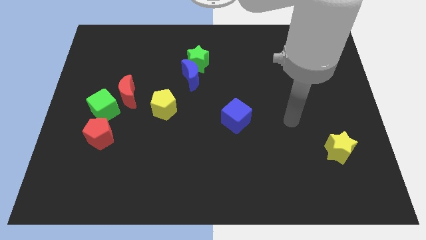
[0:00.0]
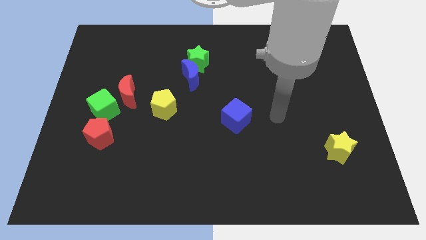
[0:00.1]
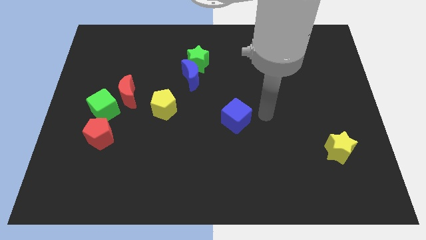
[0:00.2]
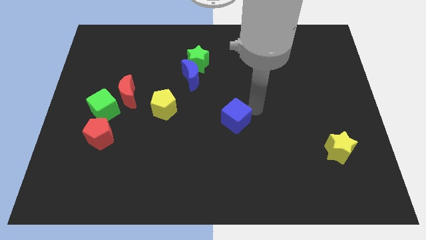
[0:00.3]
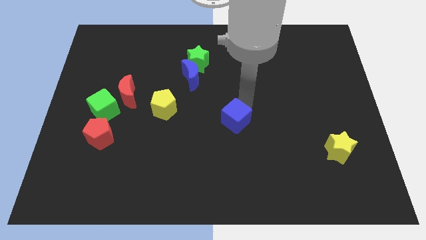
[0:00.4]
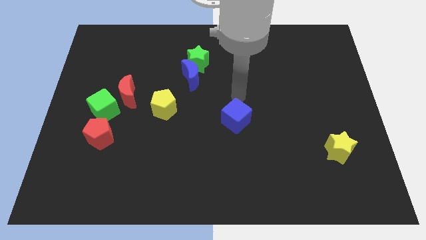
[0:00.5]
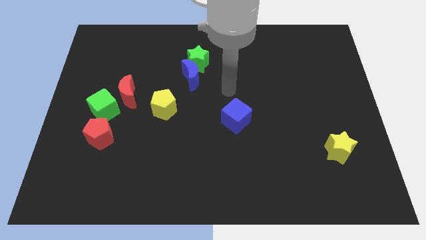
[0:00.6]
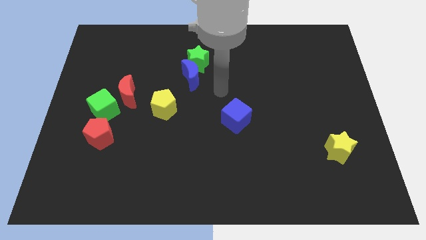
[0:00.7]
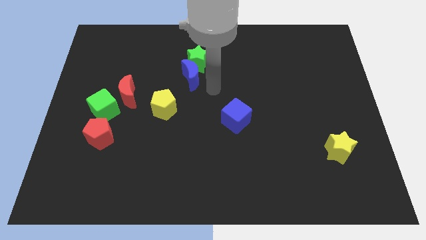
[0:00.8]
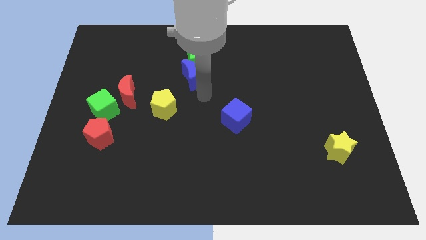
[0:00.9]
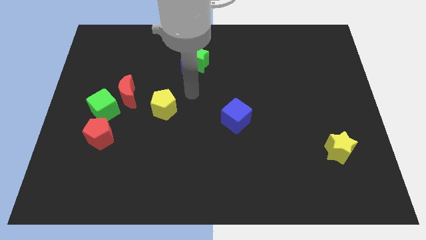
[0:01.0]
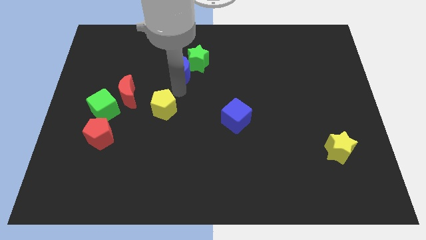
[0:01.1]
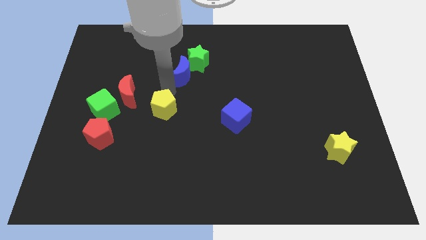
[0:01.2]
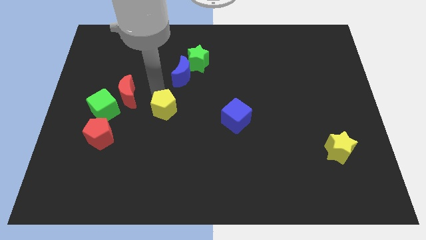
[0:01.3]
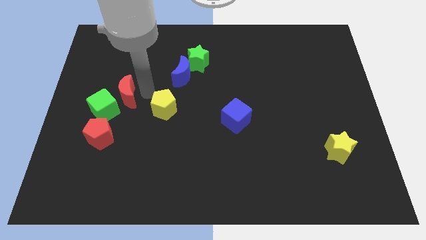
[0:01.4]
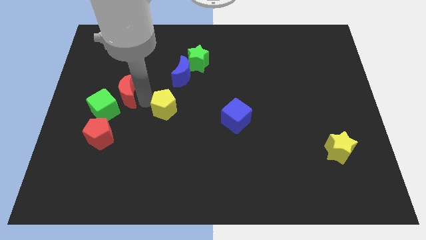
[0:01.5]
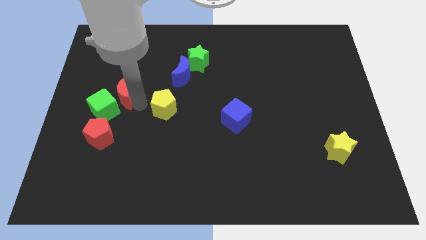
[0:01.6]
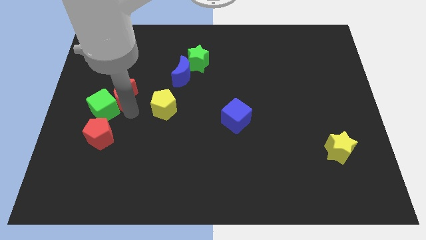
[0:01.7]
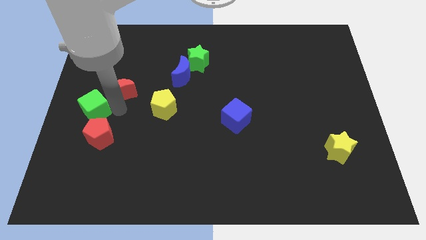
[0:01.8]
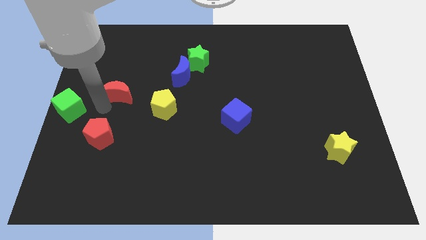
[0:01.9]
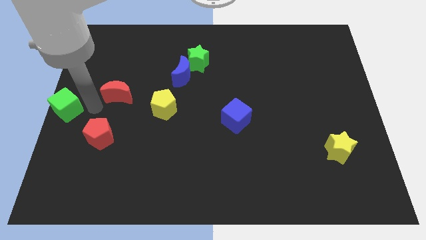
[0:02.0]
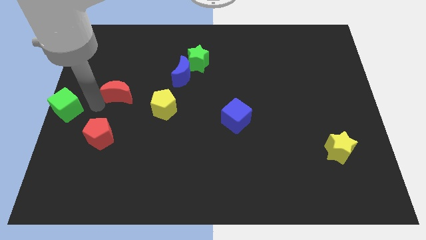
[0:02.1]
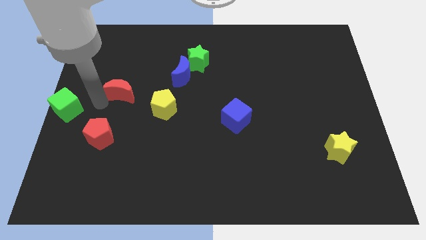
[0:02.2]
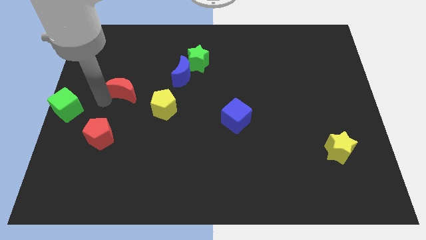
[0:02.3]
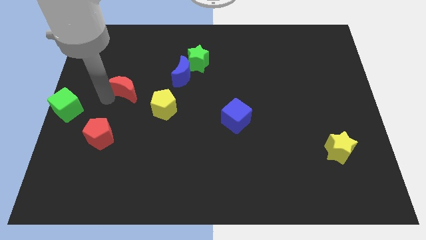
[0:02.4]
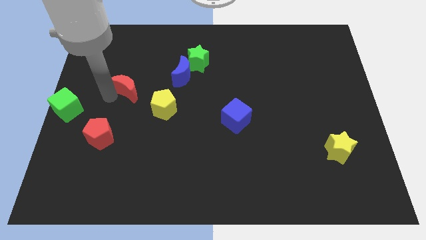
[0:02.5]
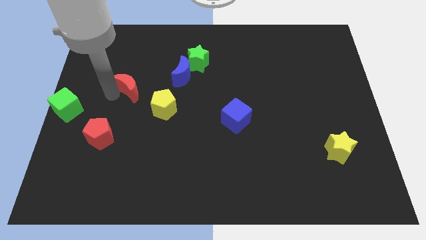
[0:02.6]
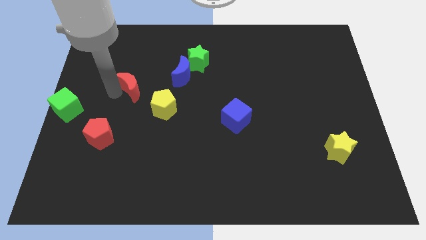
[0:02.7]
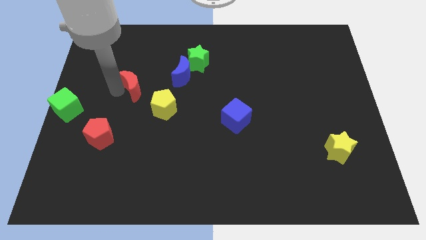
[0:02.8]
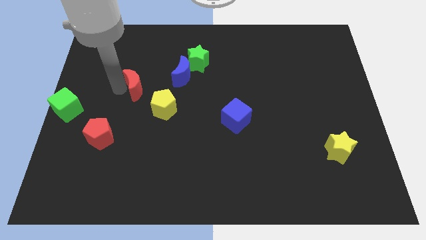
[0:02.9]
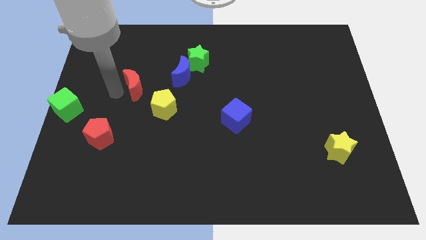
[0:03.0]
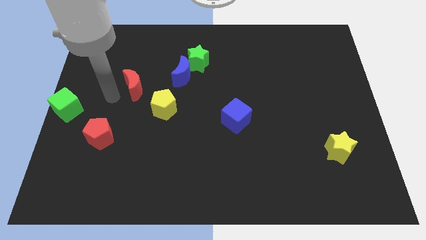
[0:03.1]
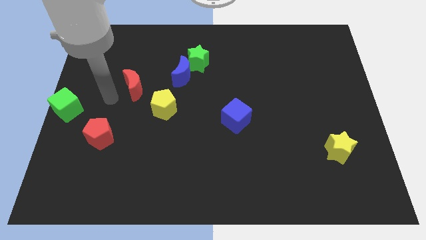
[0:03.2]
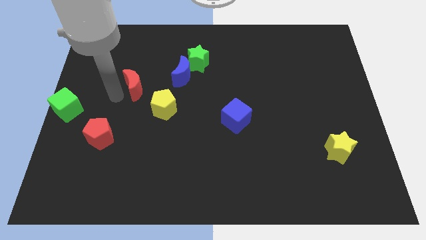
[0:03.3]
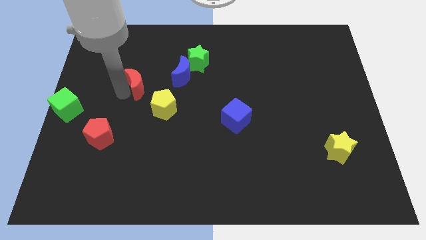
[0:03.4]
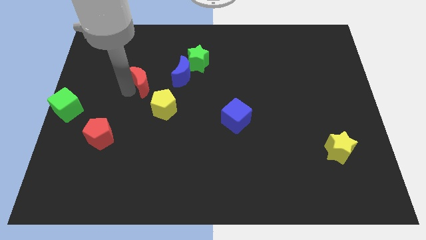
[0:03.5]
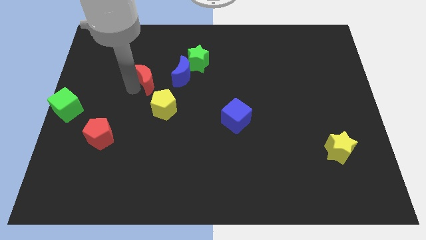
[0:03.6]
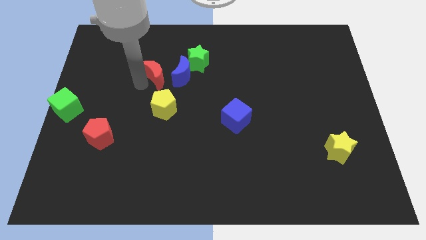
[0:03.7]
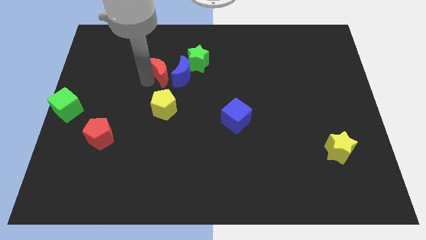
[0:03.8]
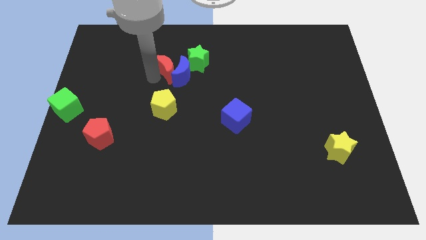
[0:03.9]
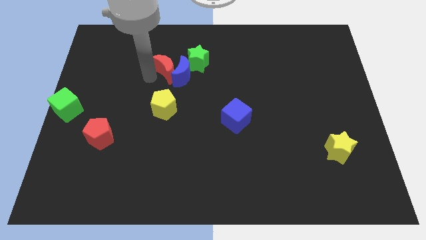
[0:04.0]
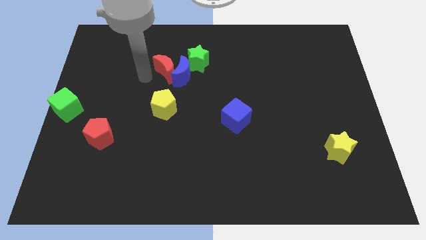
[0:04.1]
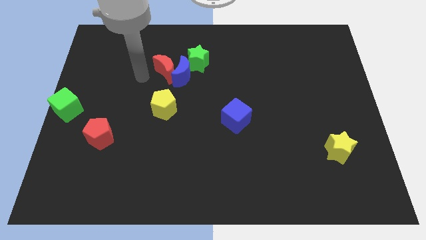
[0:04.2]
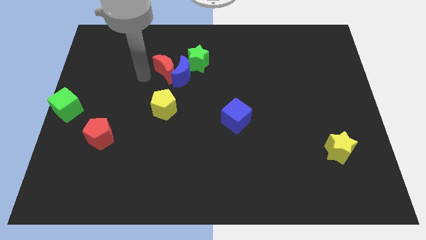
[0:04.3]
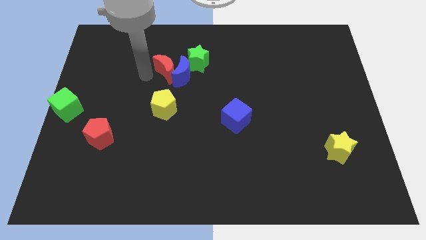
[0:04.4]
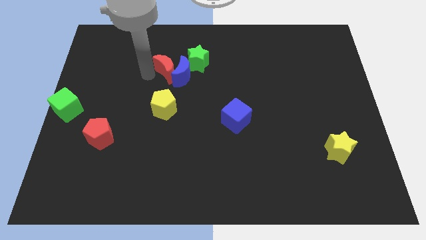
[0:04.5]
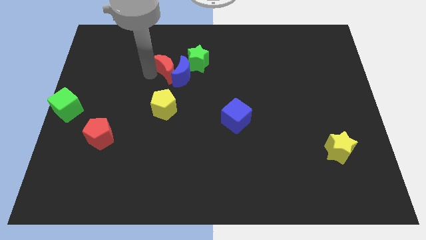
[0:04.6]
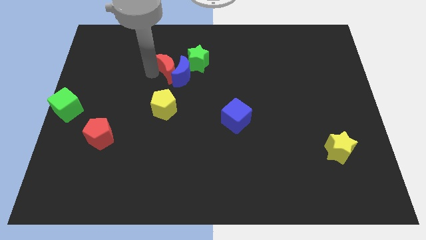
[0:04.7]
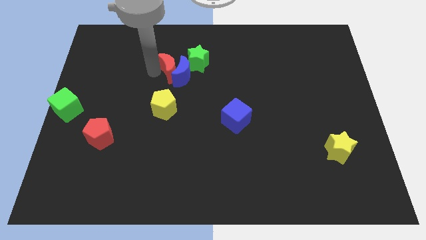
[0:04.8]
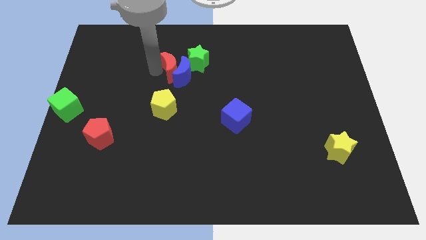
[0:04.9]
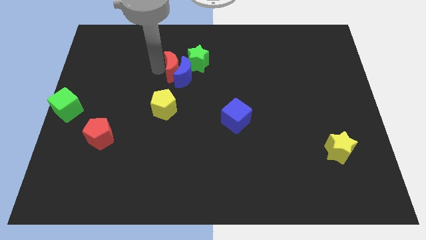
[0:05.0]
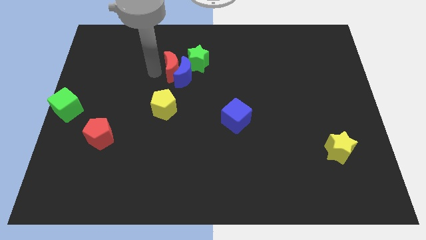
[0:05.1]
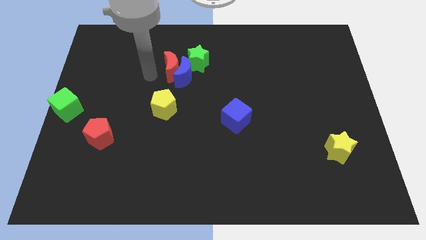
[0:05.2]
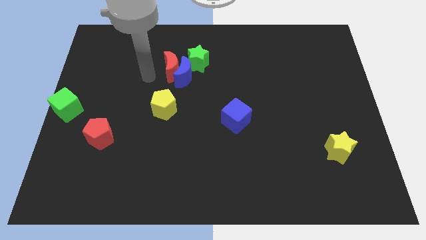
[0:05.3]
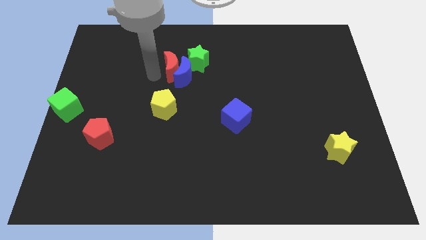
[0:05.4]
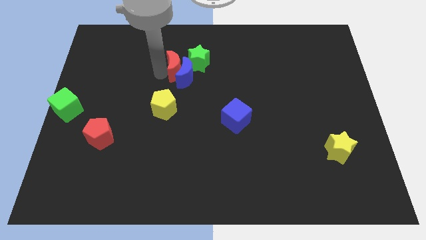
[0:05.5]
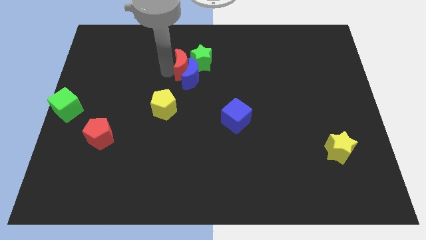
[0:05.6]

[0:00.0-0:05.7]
push the red moon to the green star
